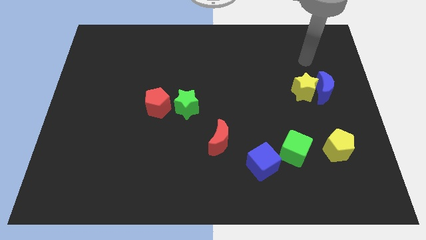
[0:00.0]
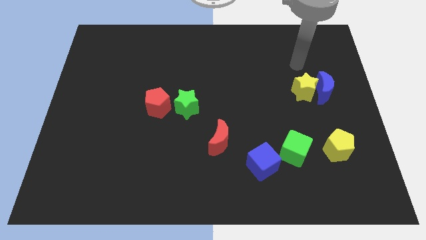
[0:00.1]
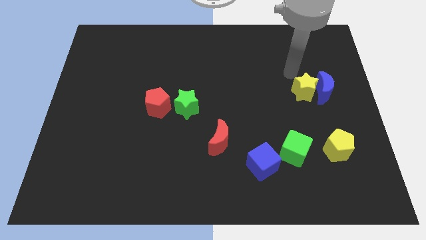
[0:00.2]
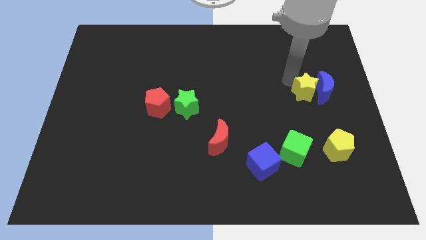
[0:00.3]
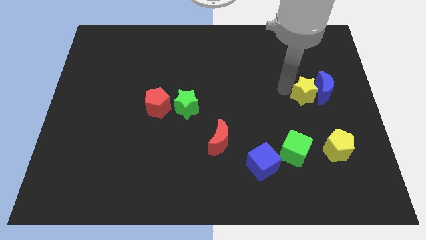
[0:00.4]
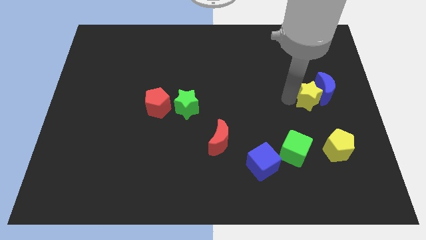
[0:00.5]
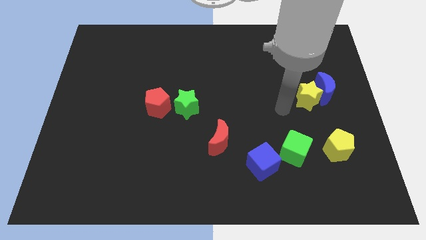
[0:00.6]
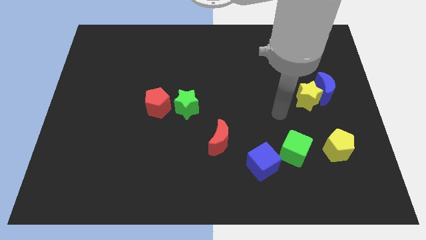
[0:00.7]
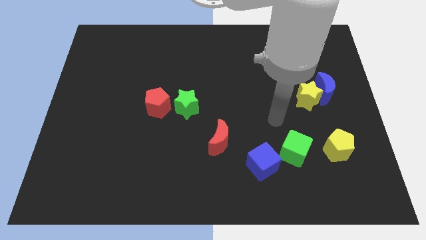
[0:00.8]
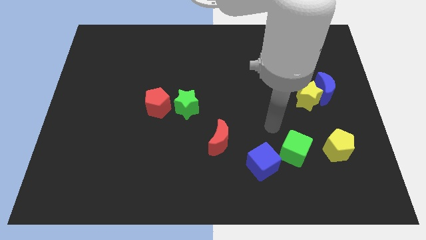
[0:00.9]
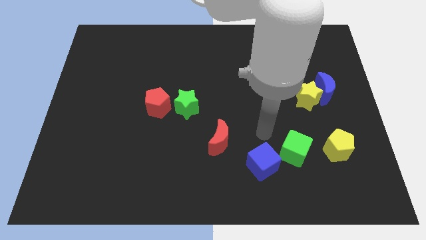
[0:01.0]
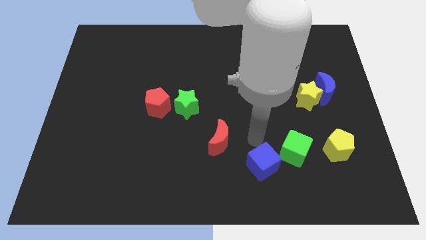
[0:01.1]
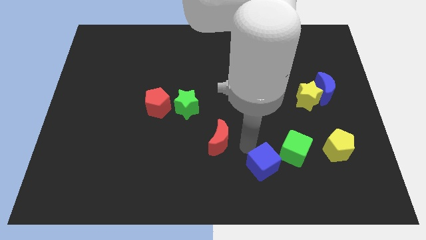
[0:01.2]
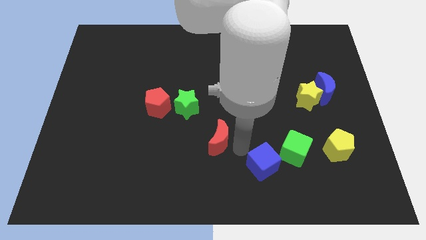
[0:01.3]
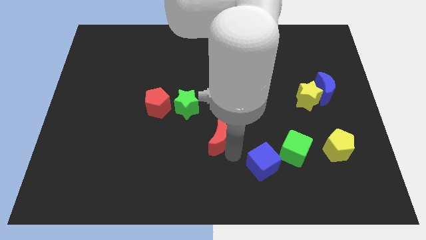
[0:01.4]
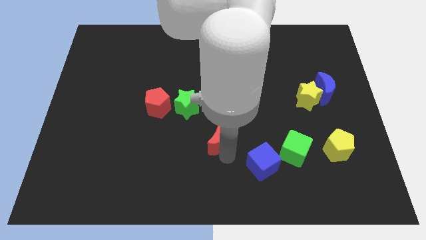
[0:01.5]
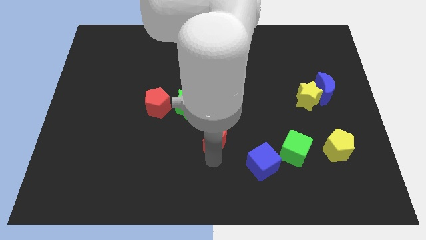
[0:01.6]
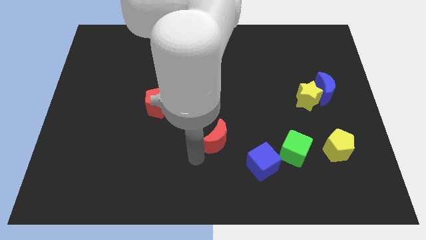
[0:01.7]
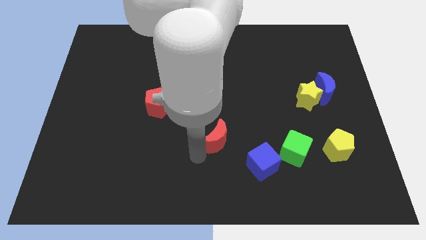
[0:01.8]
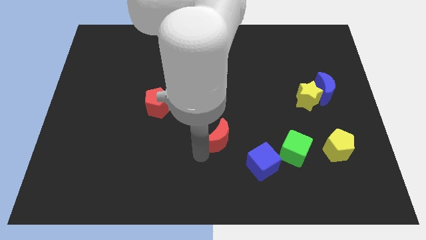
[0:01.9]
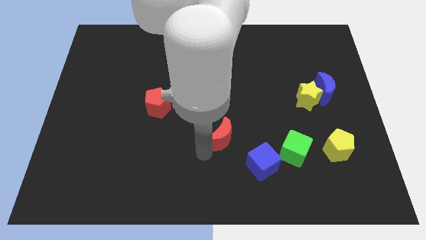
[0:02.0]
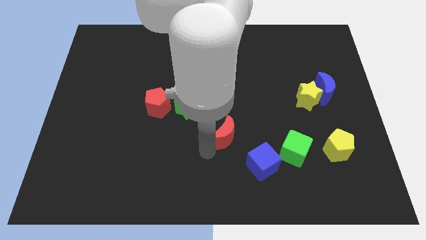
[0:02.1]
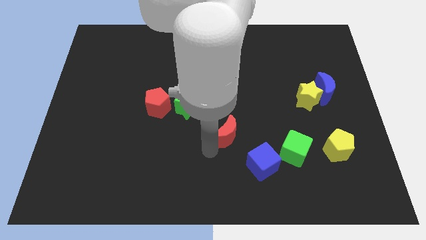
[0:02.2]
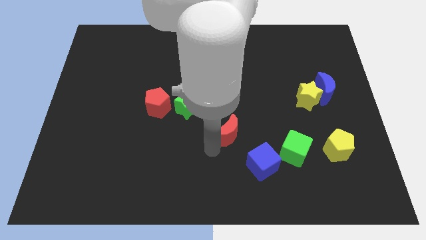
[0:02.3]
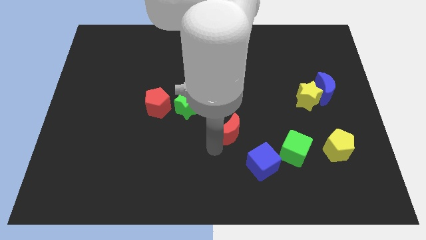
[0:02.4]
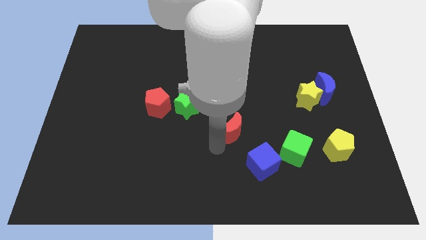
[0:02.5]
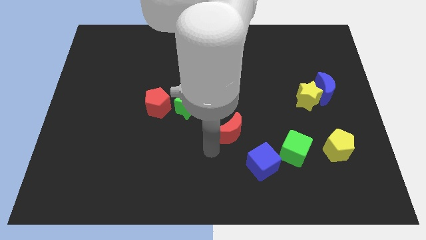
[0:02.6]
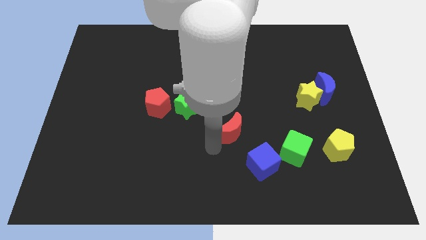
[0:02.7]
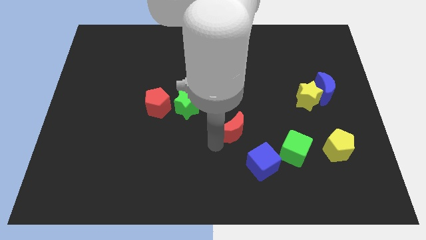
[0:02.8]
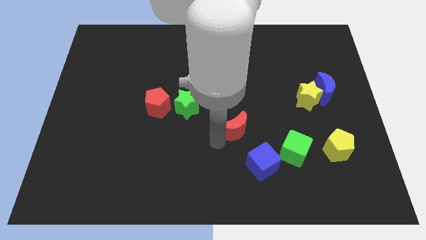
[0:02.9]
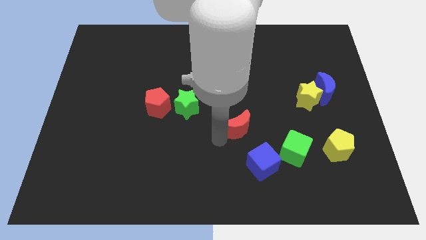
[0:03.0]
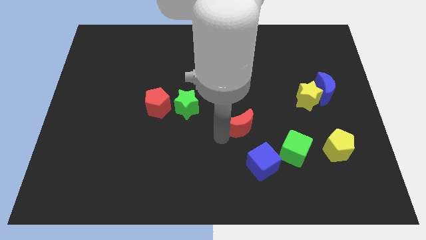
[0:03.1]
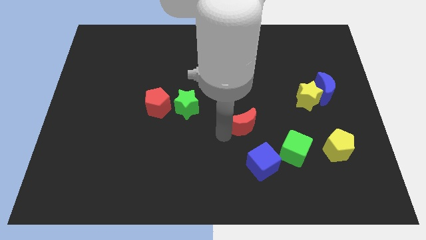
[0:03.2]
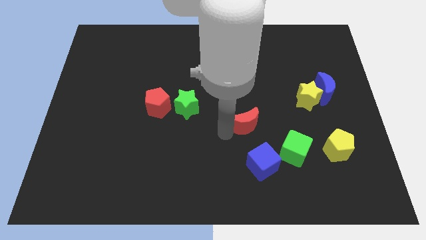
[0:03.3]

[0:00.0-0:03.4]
slightly move the red moon upwards and to the right

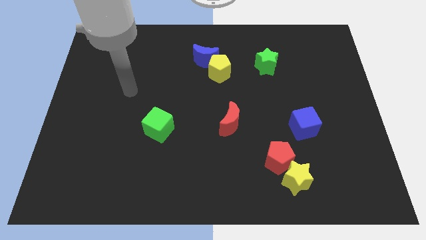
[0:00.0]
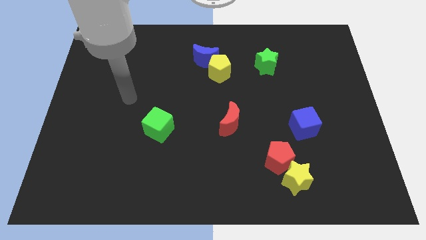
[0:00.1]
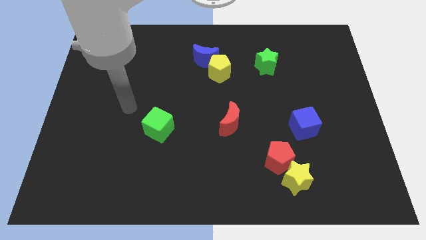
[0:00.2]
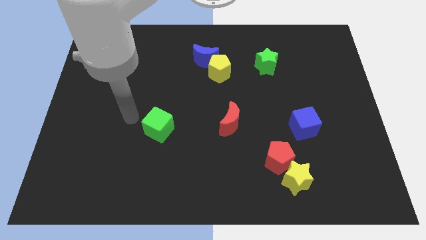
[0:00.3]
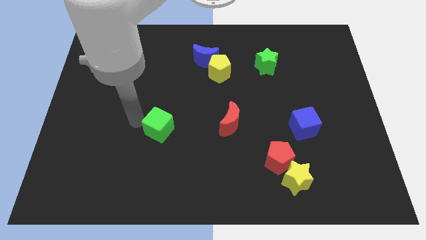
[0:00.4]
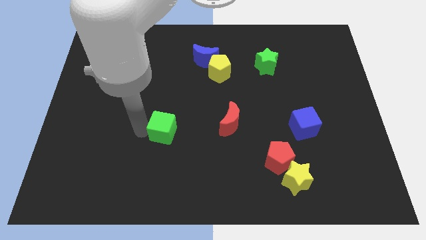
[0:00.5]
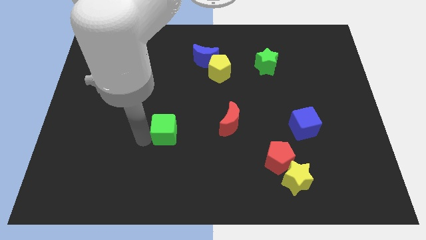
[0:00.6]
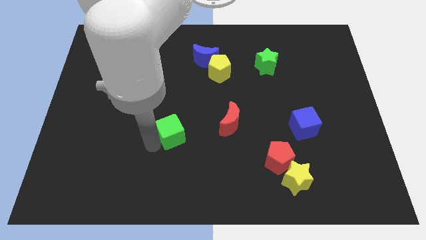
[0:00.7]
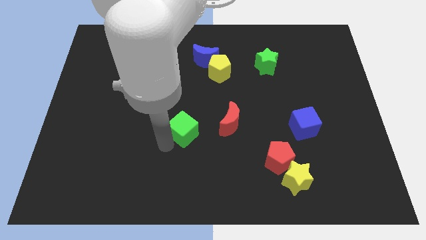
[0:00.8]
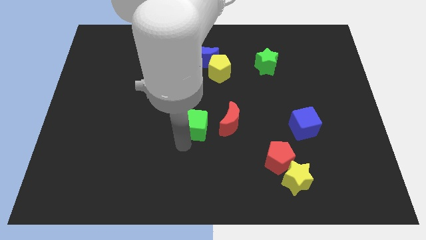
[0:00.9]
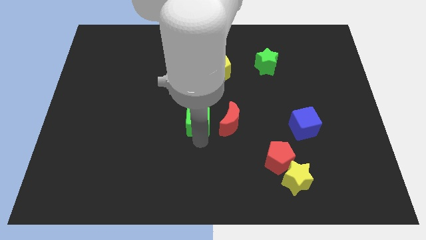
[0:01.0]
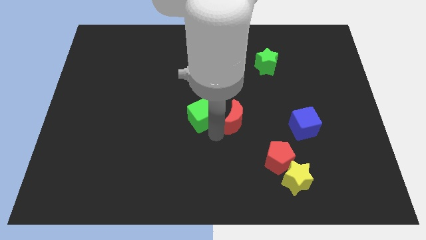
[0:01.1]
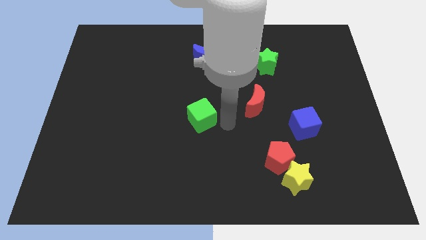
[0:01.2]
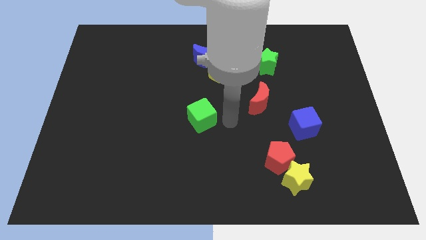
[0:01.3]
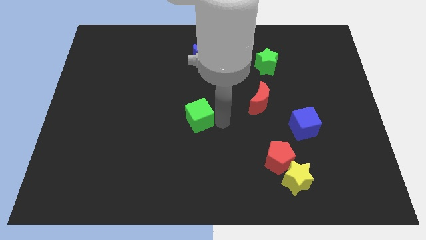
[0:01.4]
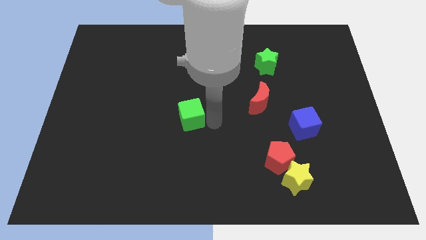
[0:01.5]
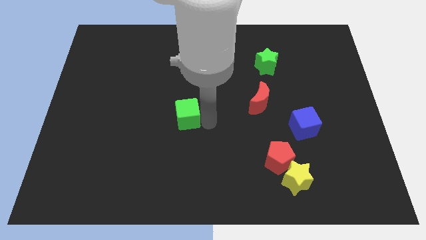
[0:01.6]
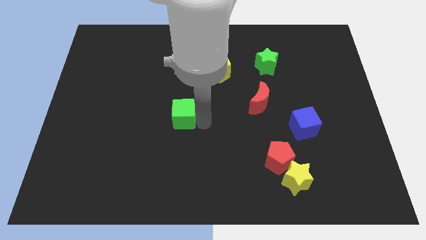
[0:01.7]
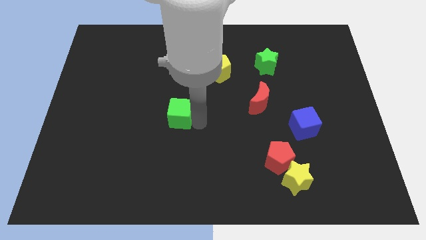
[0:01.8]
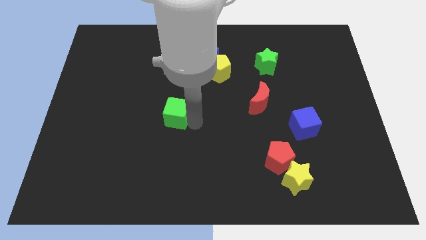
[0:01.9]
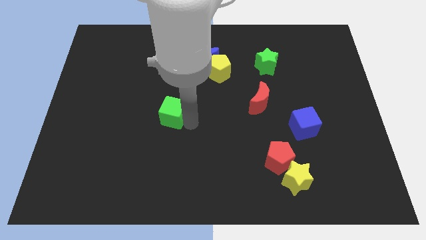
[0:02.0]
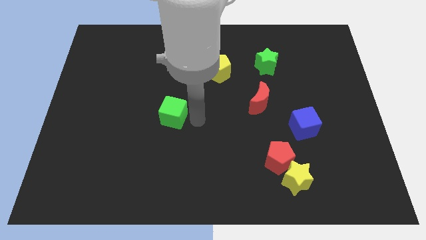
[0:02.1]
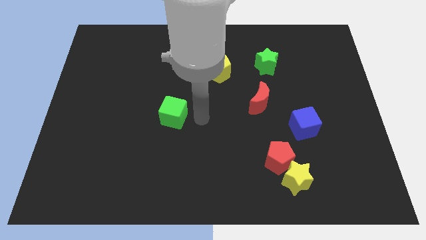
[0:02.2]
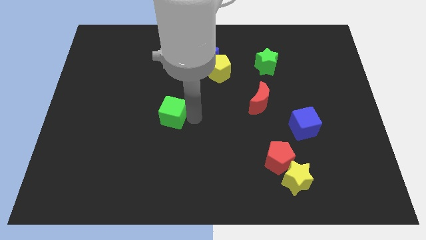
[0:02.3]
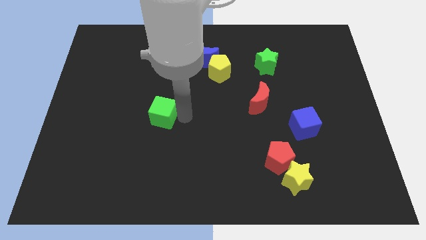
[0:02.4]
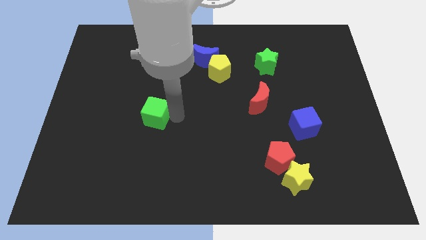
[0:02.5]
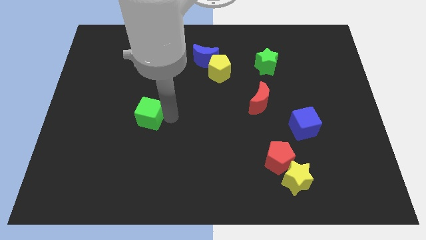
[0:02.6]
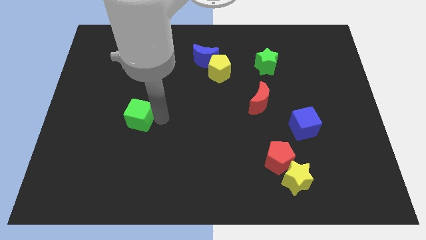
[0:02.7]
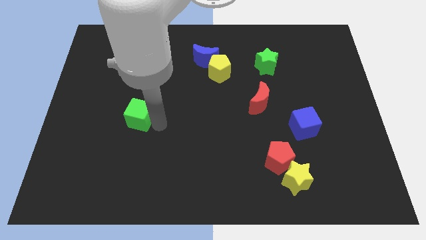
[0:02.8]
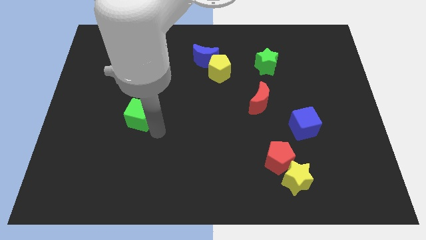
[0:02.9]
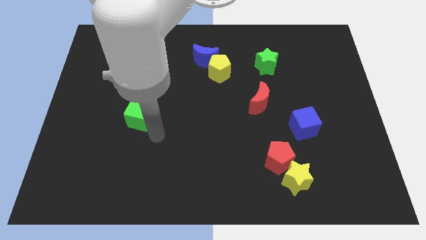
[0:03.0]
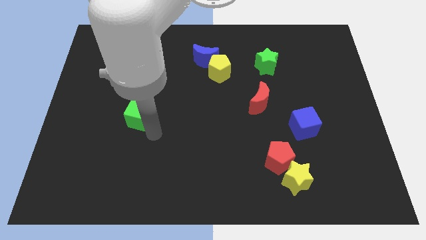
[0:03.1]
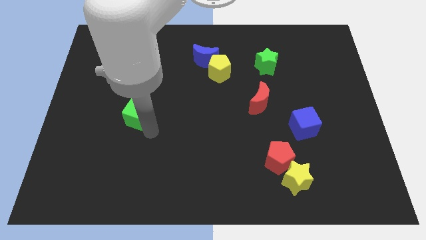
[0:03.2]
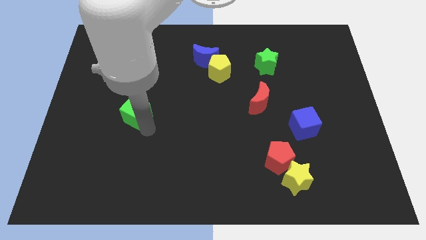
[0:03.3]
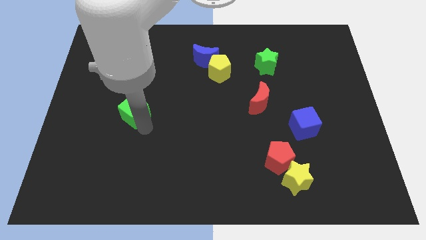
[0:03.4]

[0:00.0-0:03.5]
slightly slide the green cube upwards and to the left diagonally

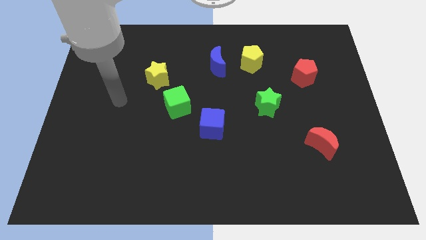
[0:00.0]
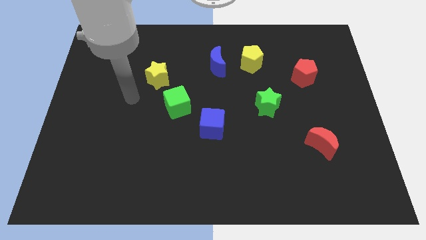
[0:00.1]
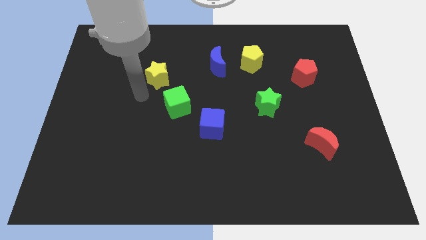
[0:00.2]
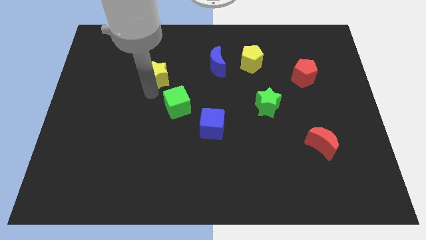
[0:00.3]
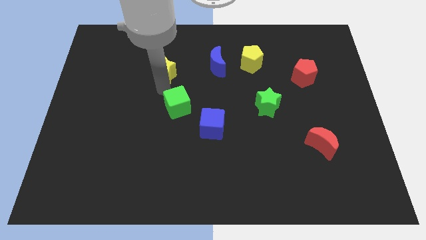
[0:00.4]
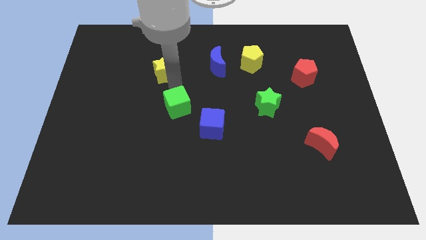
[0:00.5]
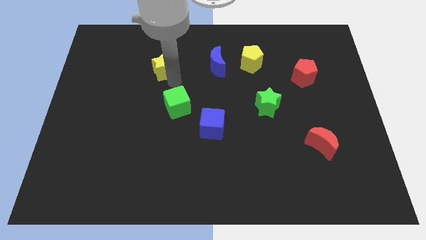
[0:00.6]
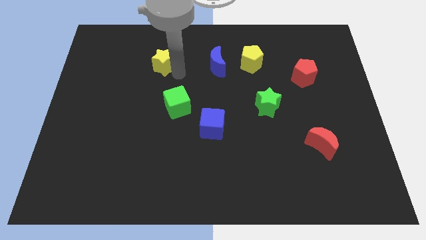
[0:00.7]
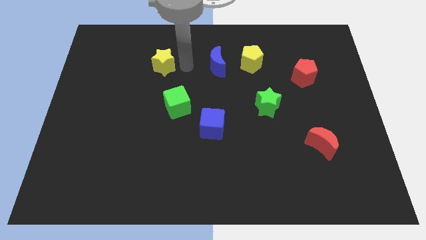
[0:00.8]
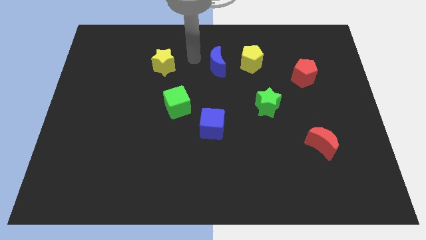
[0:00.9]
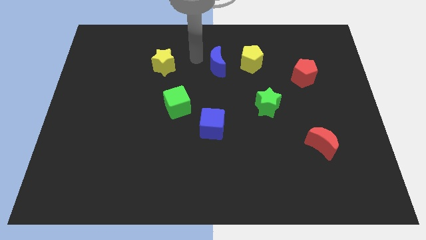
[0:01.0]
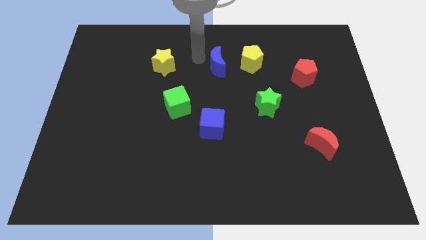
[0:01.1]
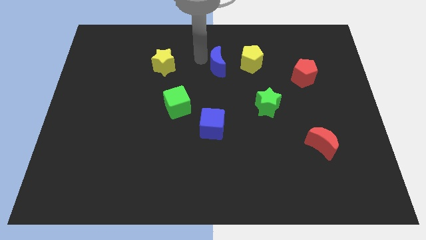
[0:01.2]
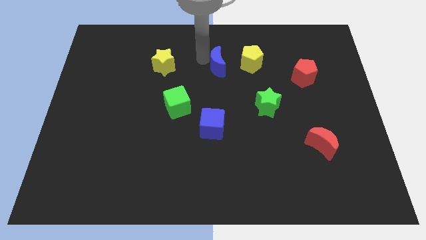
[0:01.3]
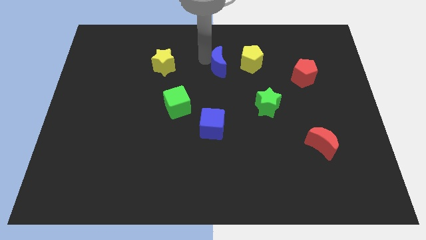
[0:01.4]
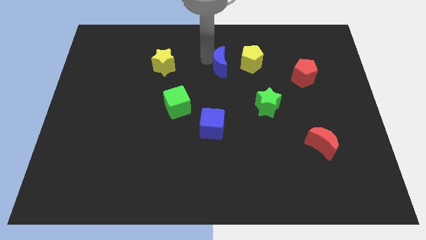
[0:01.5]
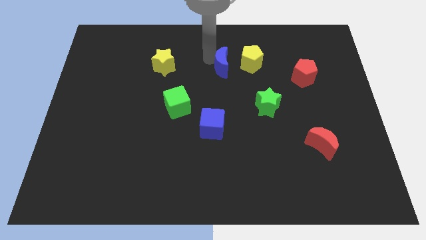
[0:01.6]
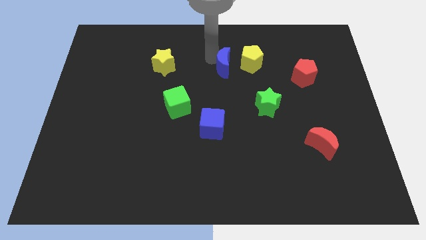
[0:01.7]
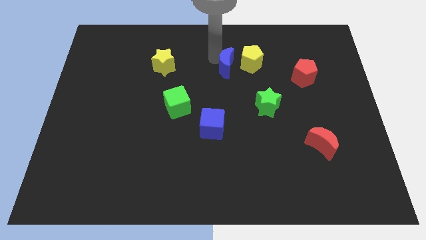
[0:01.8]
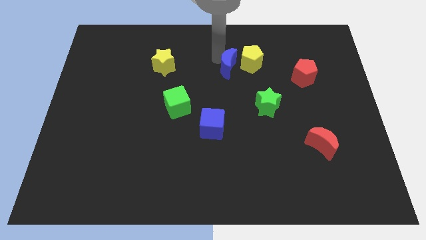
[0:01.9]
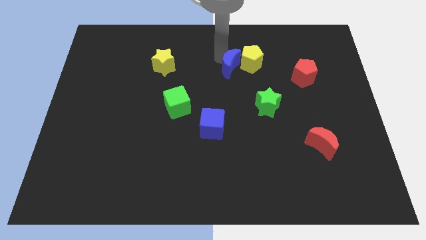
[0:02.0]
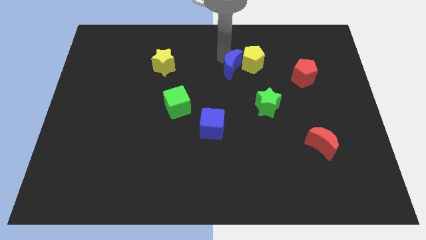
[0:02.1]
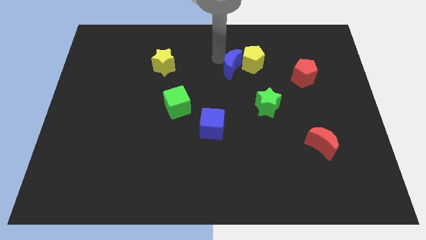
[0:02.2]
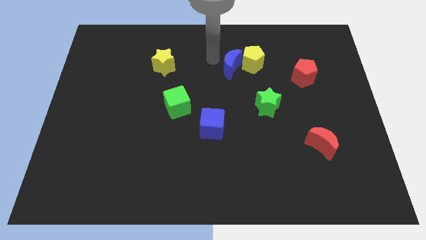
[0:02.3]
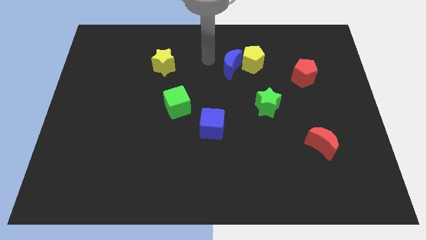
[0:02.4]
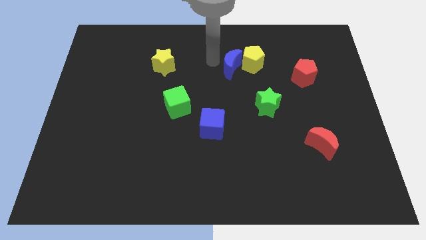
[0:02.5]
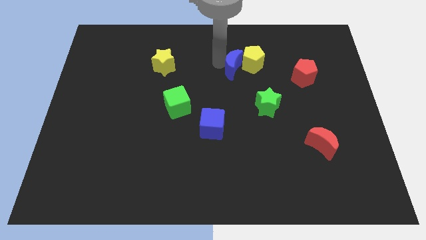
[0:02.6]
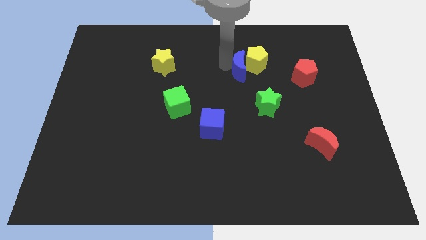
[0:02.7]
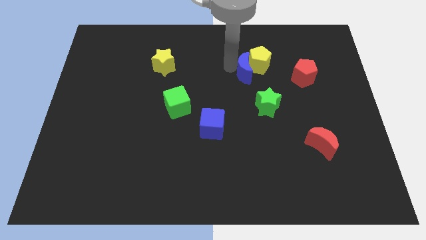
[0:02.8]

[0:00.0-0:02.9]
slightly move the blue moon right
